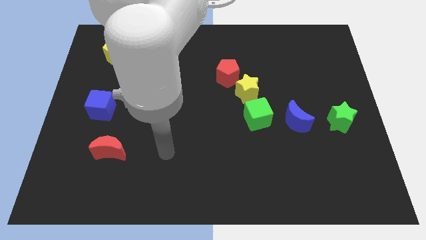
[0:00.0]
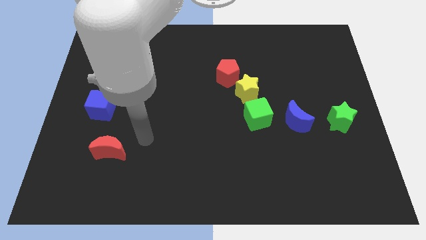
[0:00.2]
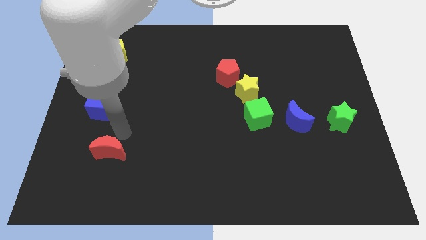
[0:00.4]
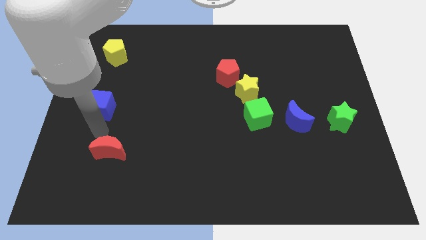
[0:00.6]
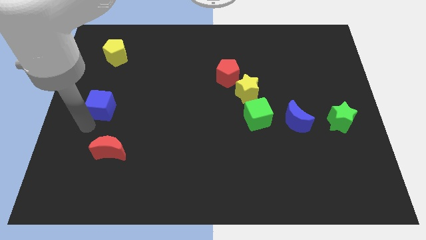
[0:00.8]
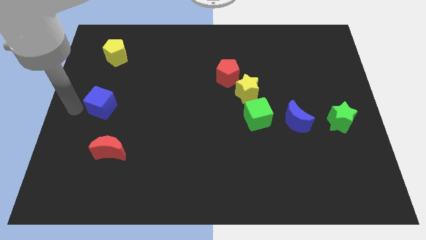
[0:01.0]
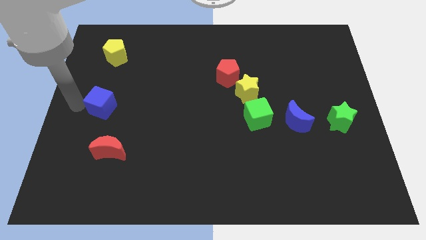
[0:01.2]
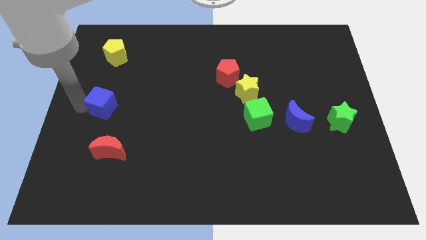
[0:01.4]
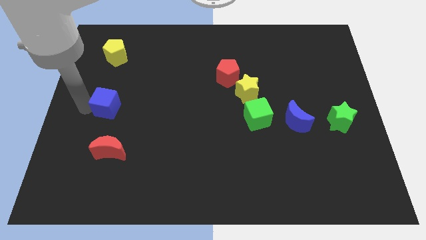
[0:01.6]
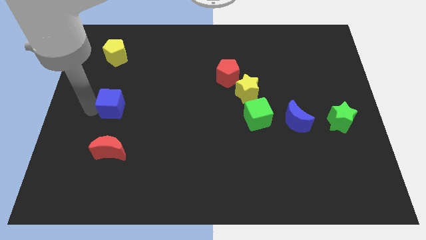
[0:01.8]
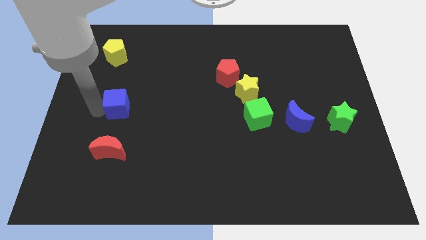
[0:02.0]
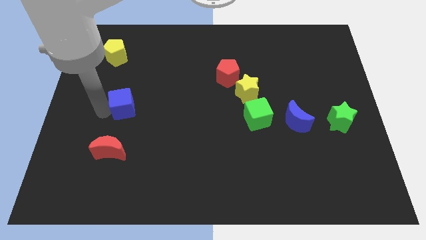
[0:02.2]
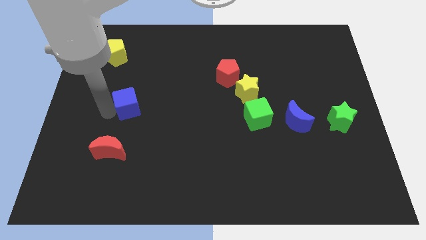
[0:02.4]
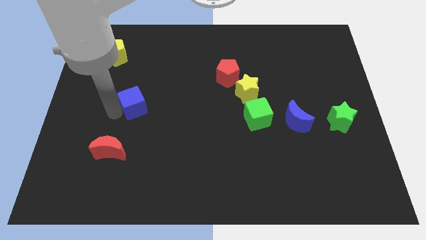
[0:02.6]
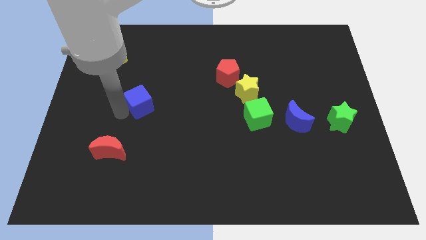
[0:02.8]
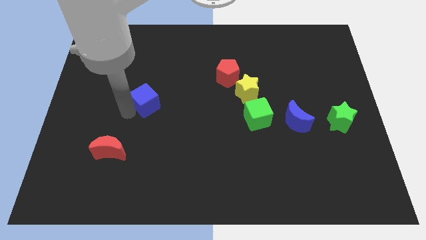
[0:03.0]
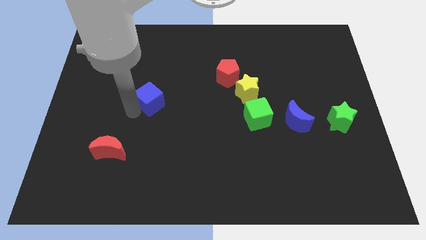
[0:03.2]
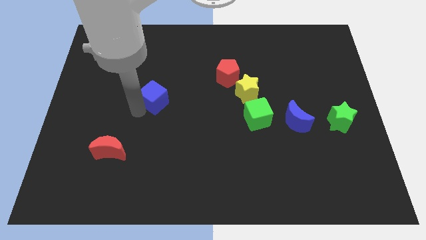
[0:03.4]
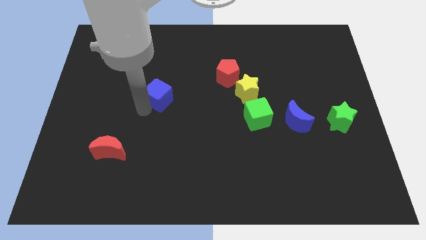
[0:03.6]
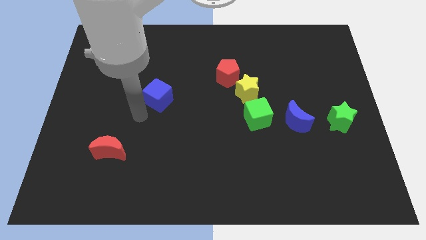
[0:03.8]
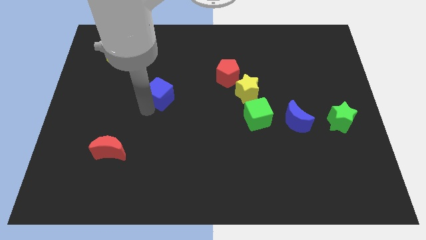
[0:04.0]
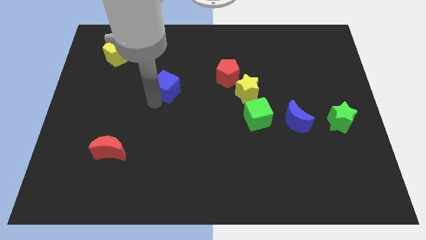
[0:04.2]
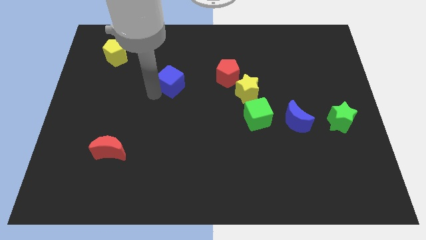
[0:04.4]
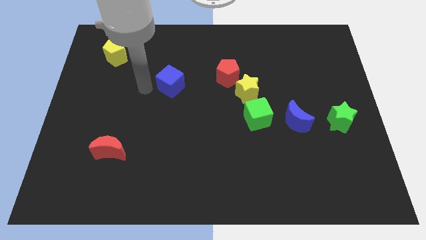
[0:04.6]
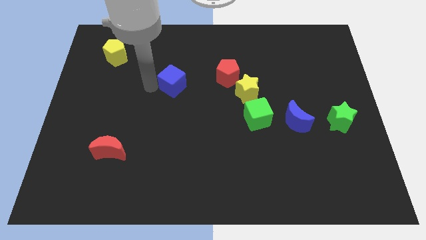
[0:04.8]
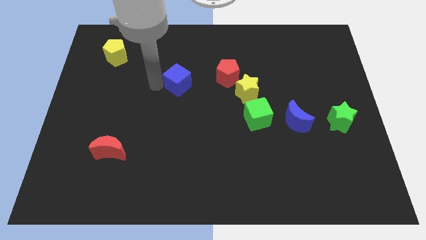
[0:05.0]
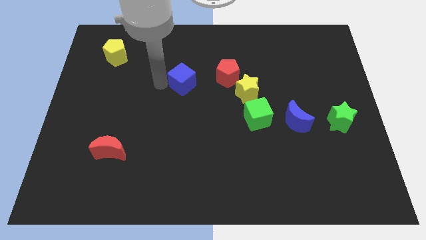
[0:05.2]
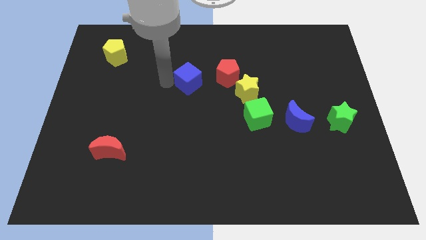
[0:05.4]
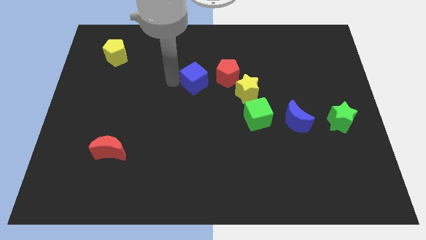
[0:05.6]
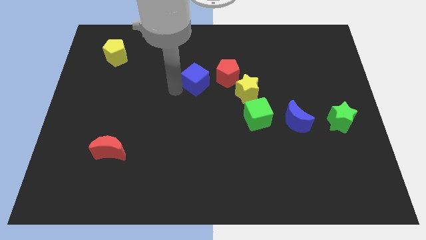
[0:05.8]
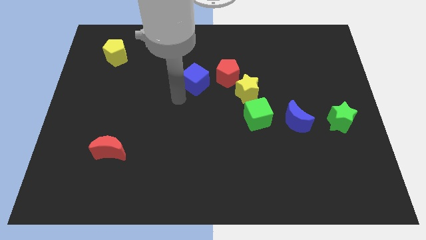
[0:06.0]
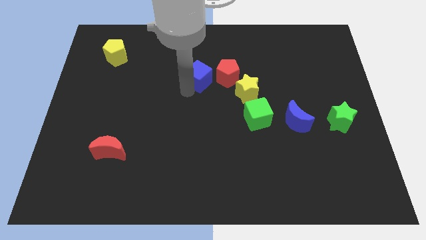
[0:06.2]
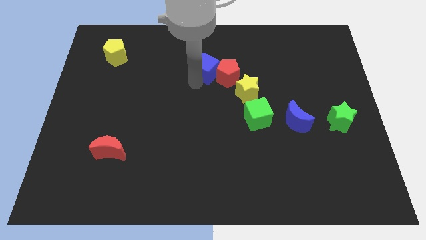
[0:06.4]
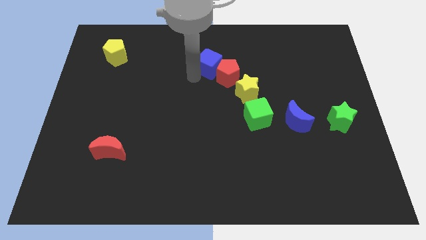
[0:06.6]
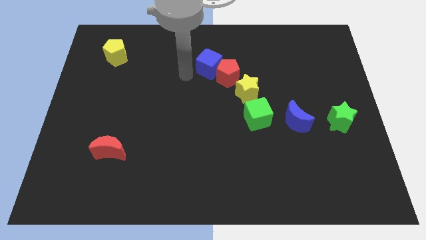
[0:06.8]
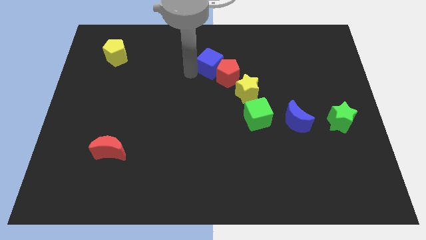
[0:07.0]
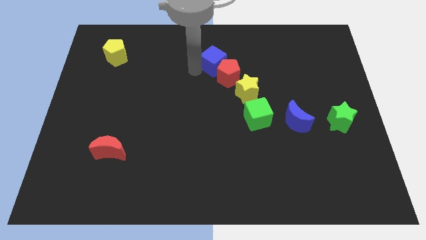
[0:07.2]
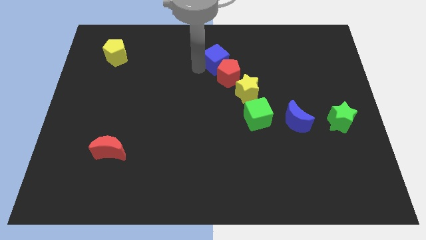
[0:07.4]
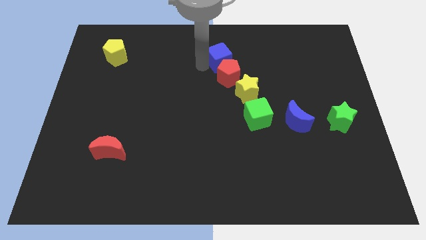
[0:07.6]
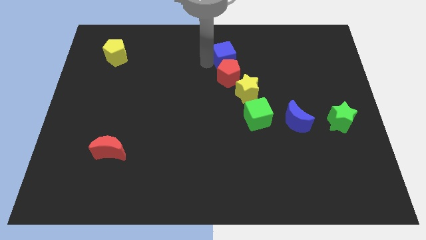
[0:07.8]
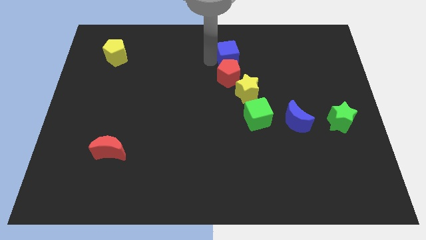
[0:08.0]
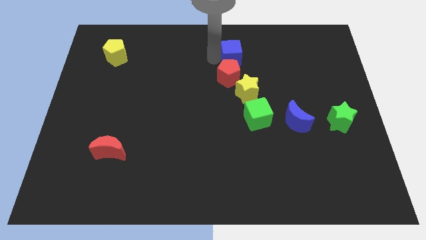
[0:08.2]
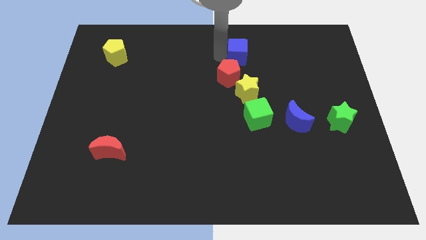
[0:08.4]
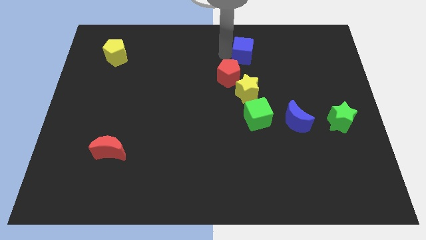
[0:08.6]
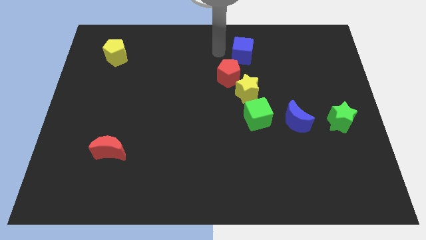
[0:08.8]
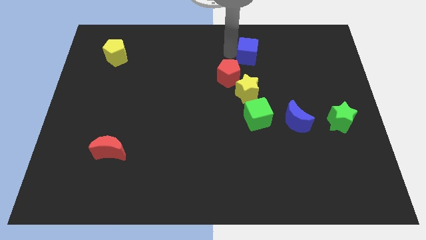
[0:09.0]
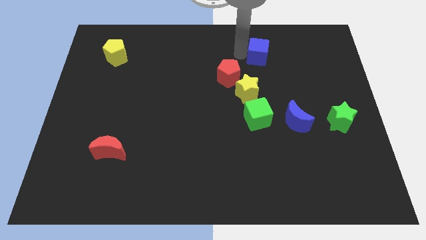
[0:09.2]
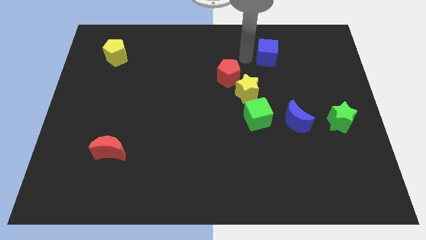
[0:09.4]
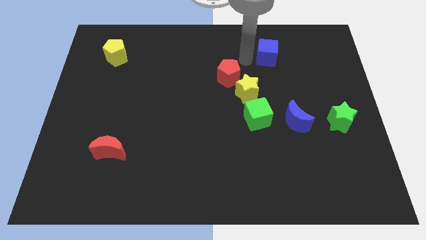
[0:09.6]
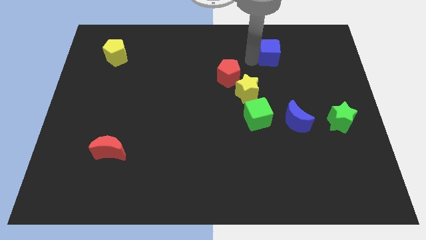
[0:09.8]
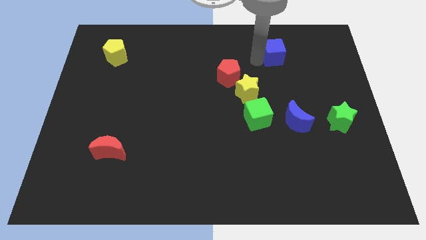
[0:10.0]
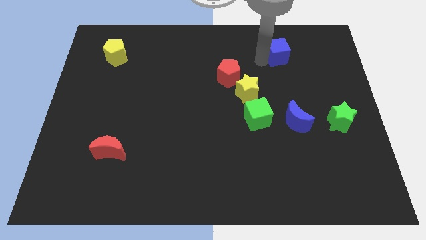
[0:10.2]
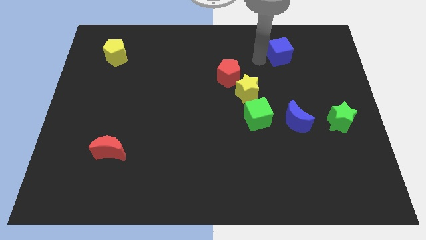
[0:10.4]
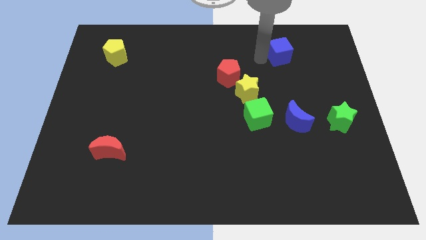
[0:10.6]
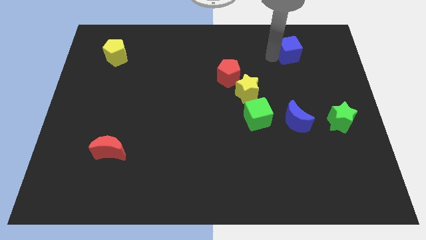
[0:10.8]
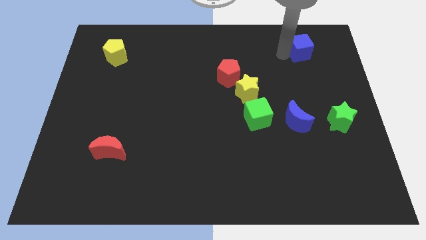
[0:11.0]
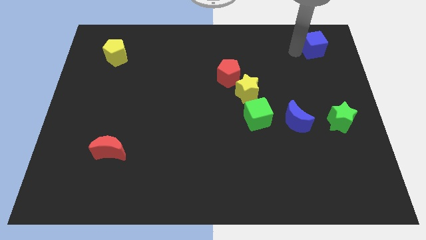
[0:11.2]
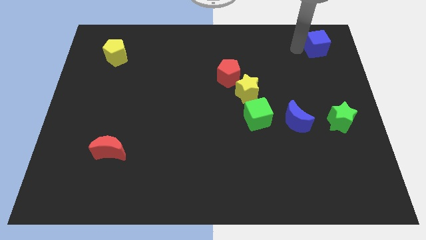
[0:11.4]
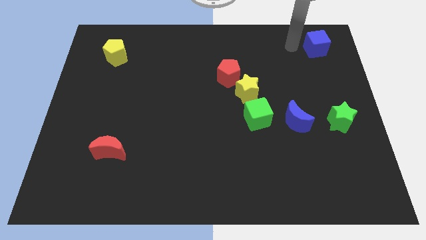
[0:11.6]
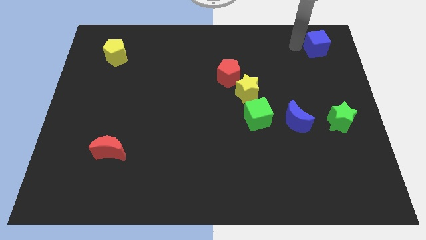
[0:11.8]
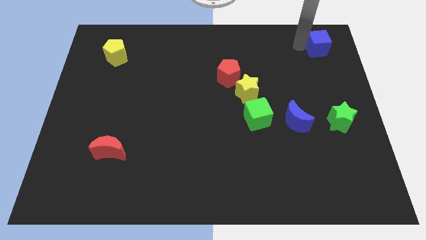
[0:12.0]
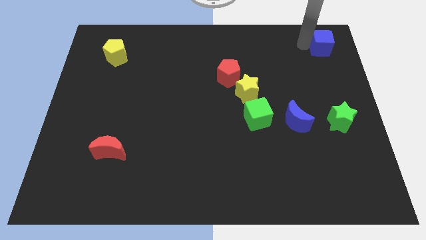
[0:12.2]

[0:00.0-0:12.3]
move the blue cube to the upper right corner

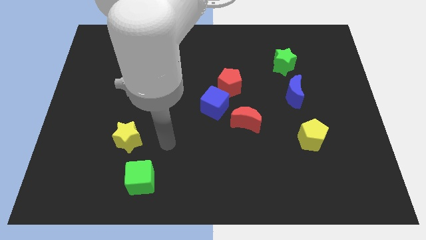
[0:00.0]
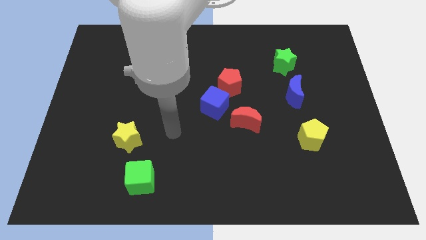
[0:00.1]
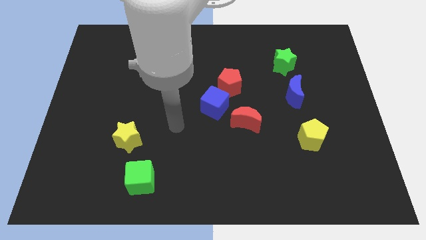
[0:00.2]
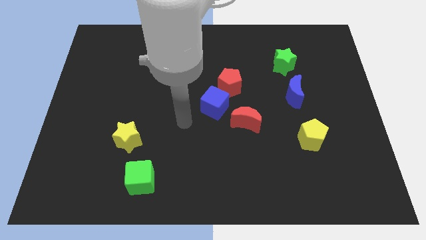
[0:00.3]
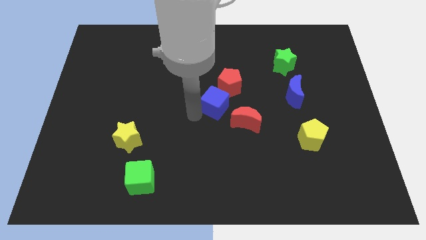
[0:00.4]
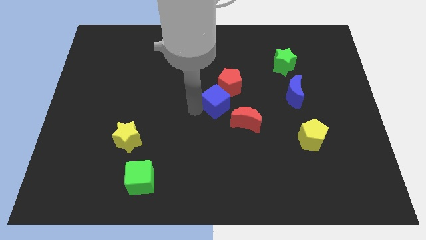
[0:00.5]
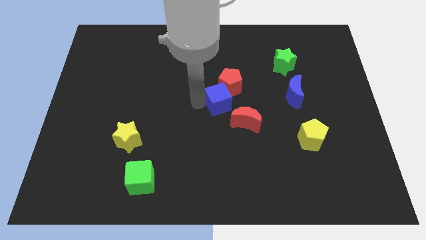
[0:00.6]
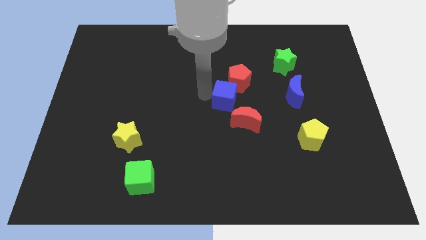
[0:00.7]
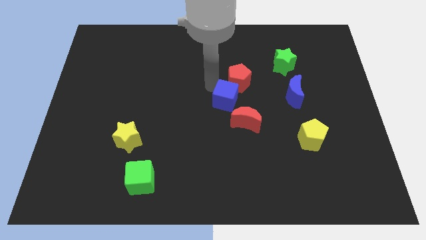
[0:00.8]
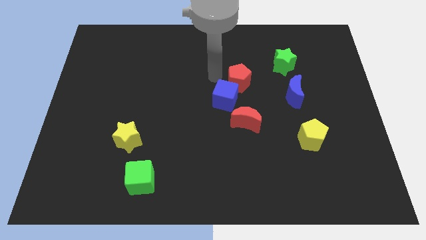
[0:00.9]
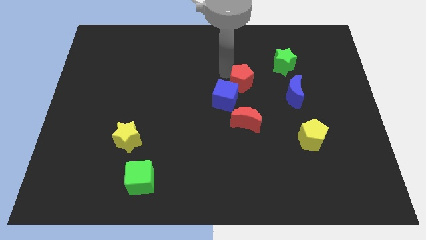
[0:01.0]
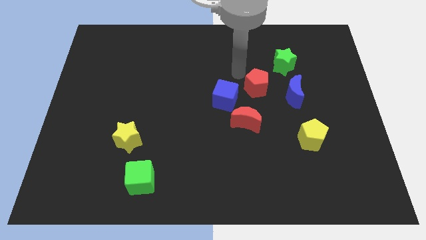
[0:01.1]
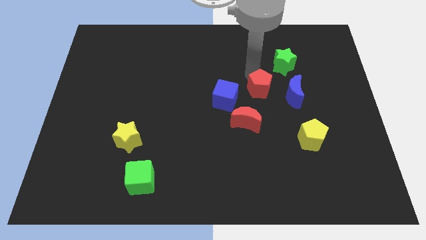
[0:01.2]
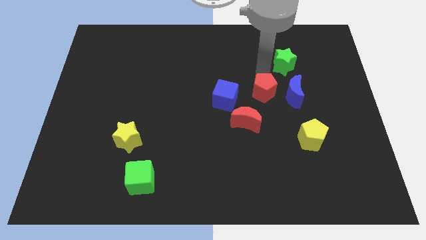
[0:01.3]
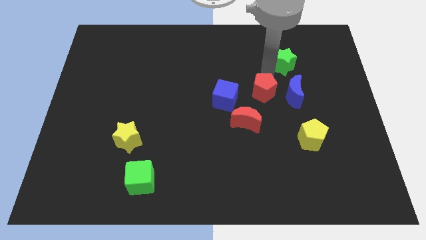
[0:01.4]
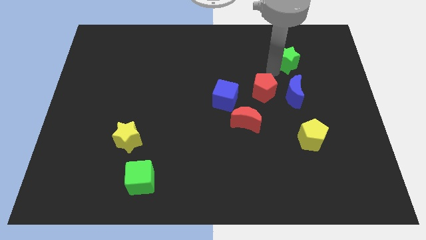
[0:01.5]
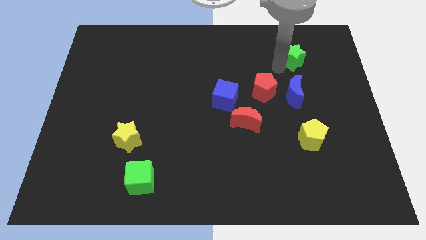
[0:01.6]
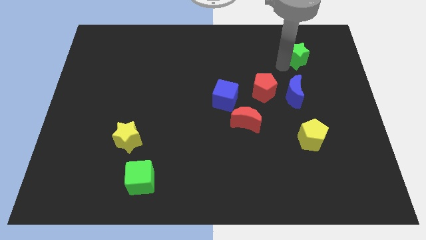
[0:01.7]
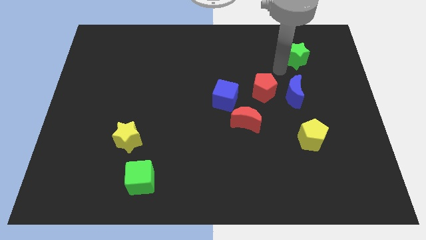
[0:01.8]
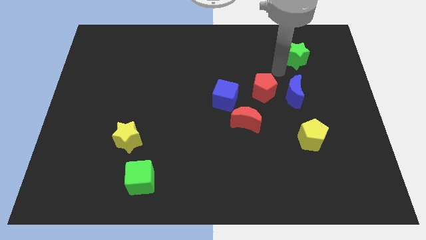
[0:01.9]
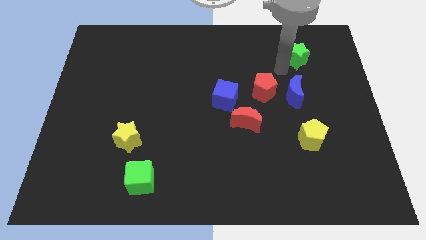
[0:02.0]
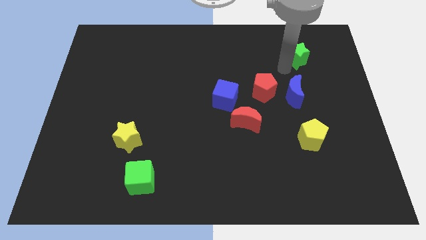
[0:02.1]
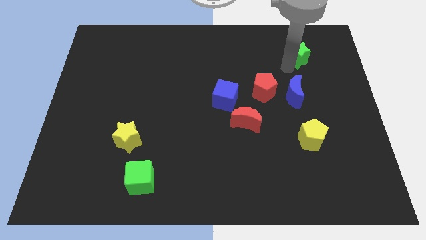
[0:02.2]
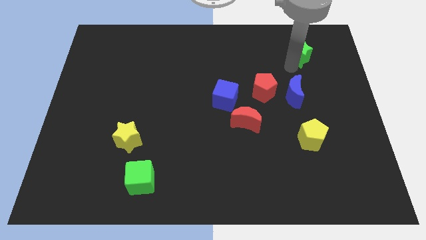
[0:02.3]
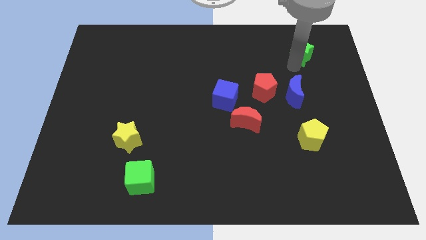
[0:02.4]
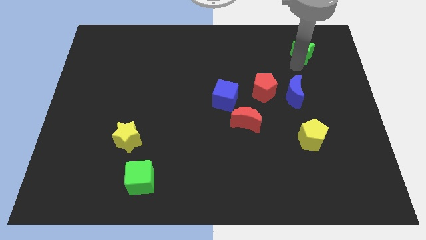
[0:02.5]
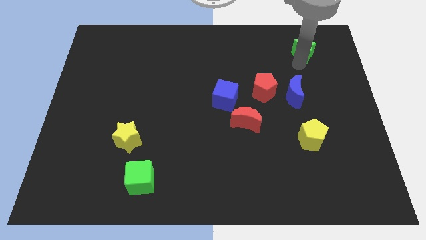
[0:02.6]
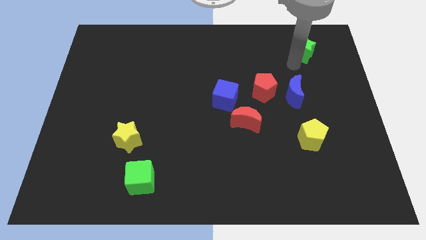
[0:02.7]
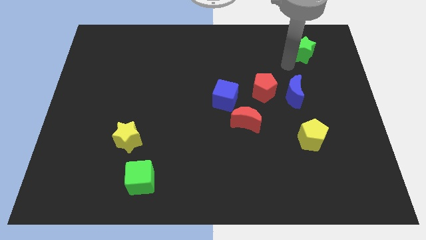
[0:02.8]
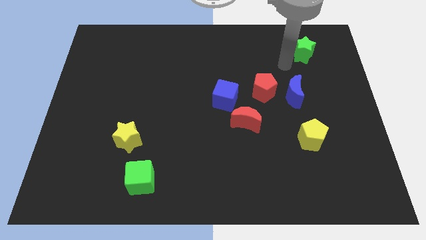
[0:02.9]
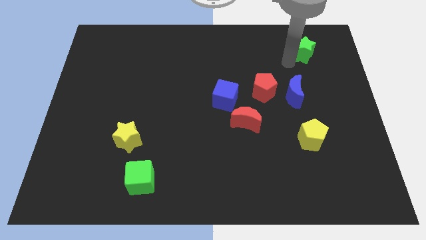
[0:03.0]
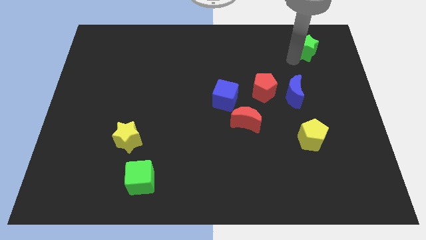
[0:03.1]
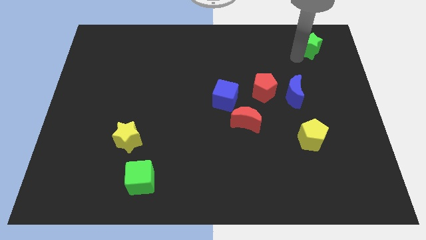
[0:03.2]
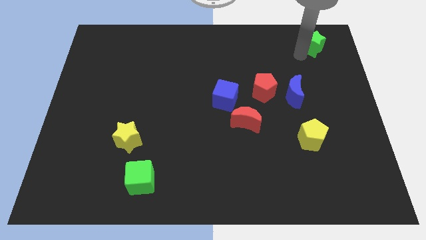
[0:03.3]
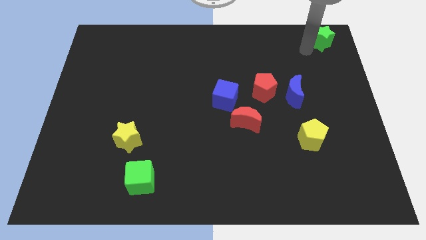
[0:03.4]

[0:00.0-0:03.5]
put the green star to the upper right corner
